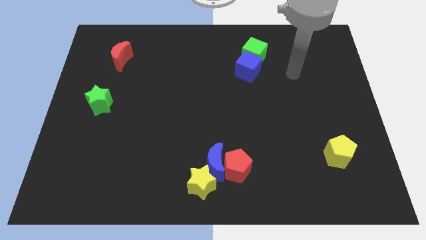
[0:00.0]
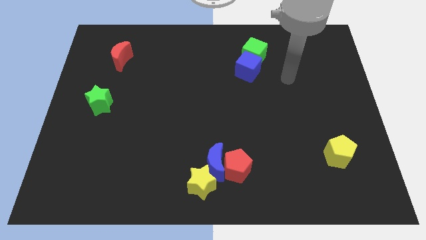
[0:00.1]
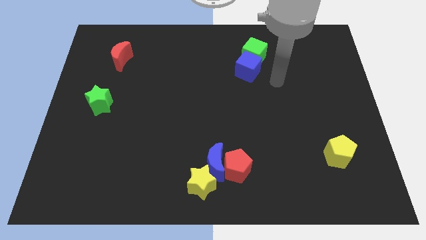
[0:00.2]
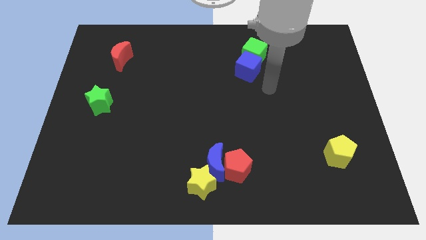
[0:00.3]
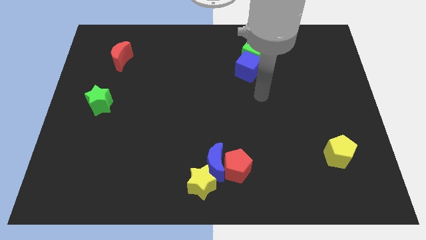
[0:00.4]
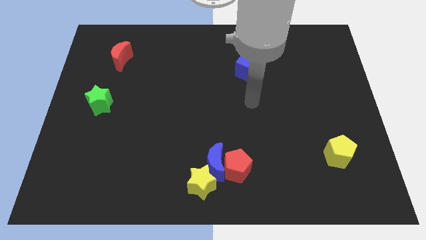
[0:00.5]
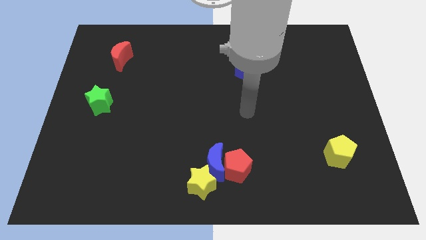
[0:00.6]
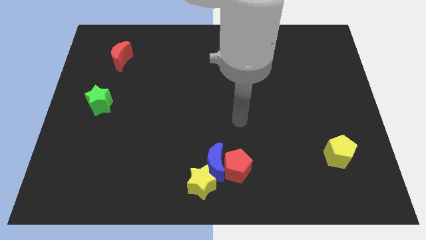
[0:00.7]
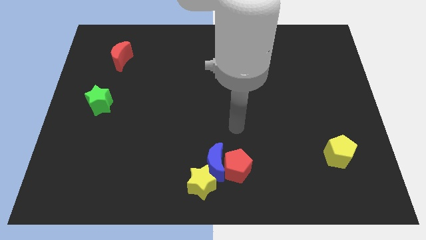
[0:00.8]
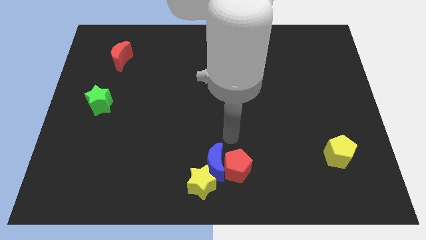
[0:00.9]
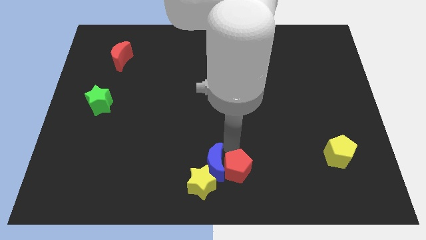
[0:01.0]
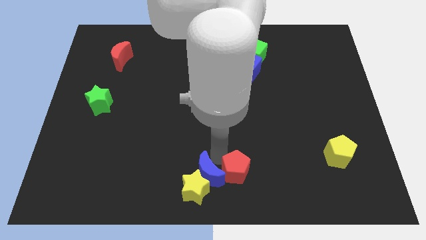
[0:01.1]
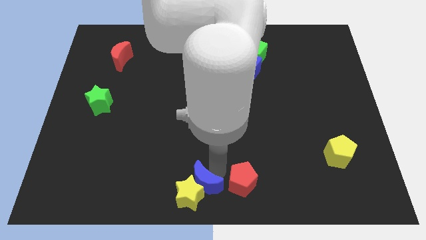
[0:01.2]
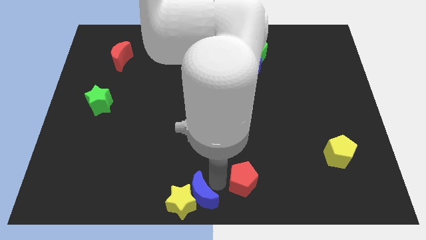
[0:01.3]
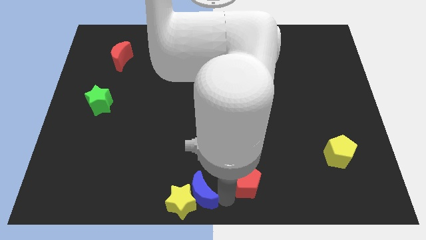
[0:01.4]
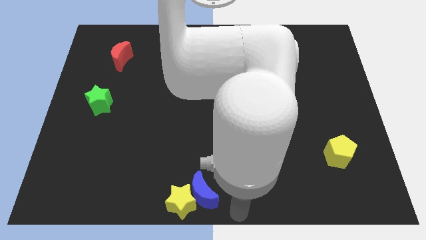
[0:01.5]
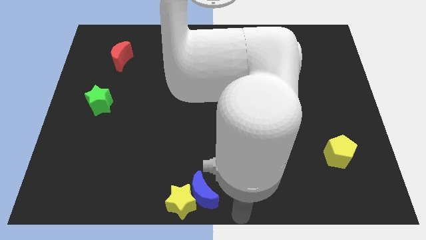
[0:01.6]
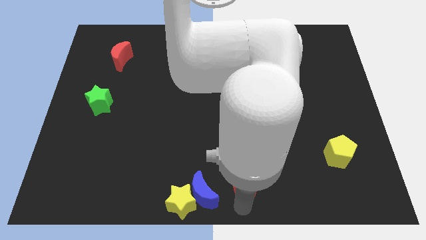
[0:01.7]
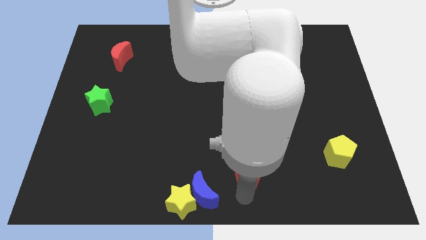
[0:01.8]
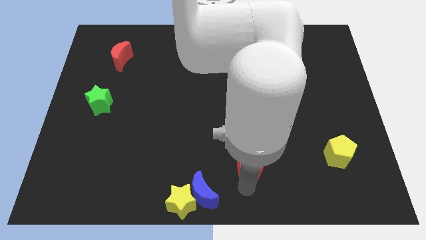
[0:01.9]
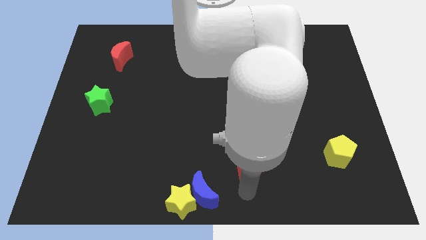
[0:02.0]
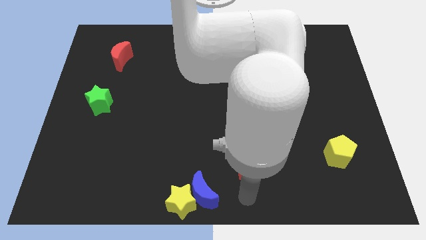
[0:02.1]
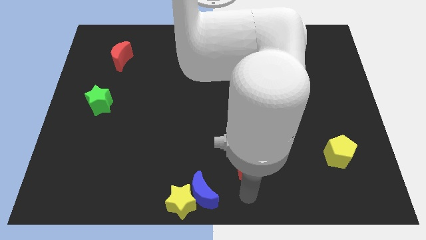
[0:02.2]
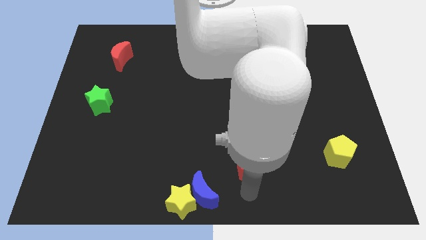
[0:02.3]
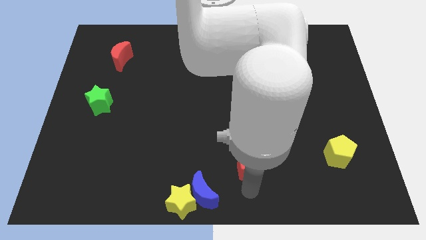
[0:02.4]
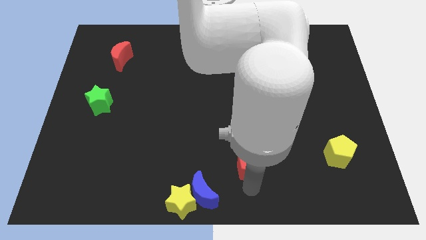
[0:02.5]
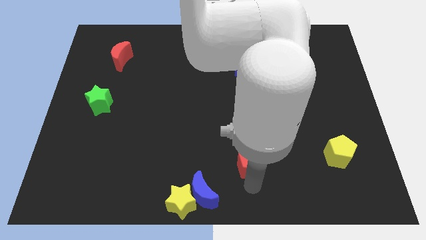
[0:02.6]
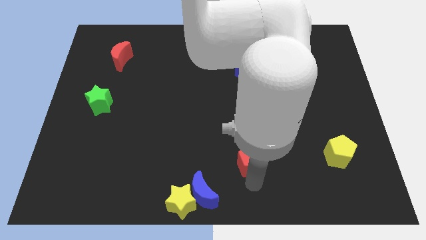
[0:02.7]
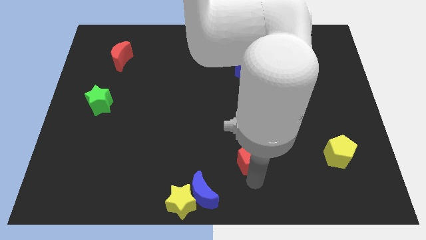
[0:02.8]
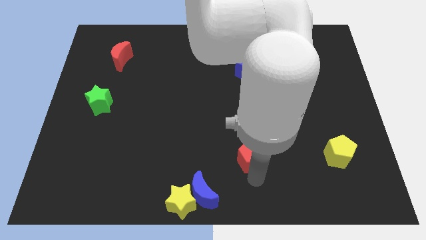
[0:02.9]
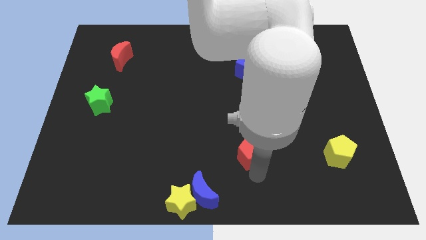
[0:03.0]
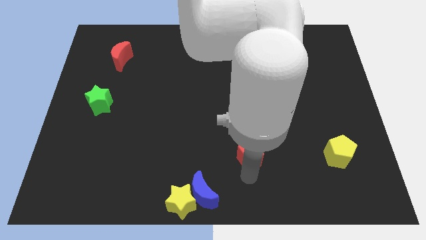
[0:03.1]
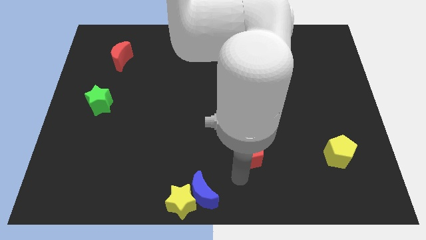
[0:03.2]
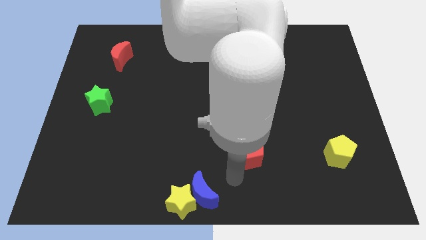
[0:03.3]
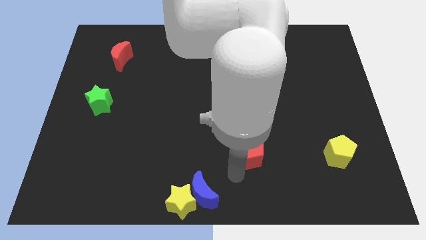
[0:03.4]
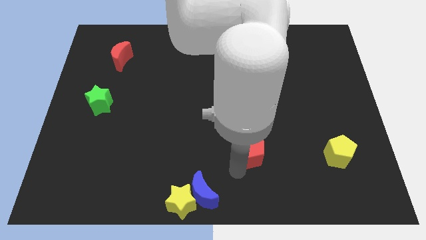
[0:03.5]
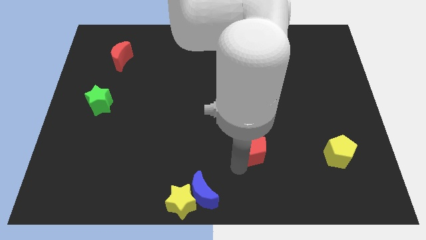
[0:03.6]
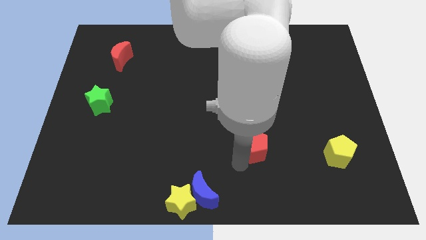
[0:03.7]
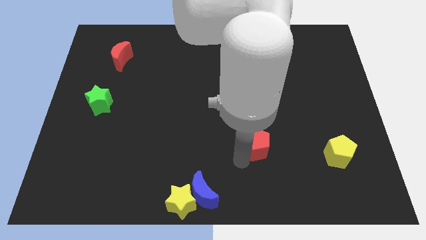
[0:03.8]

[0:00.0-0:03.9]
slightly move the red pentagon upwards and then right

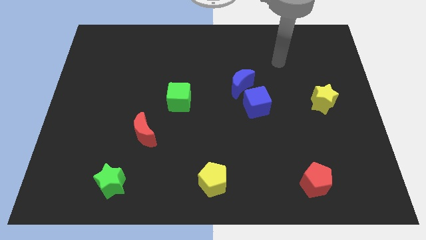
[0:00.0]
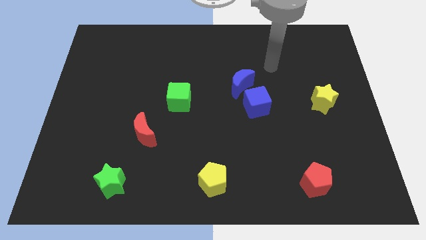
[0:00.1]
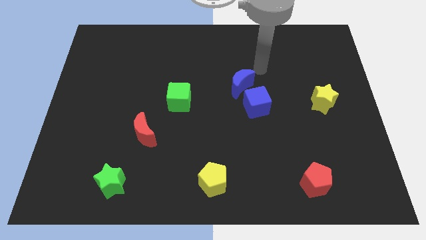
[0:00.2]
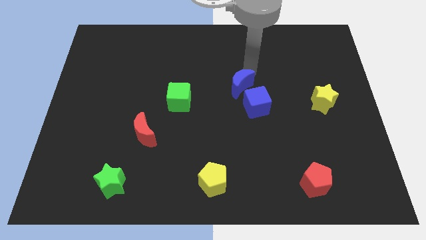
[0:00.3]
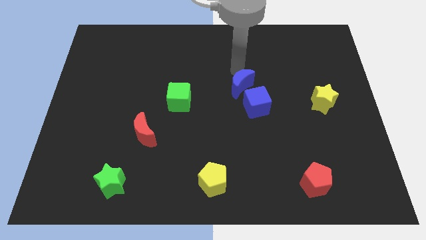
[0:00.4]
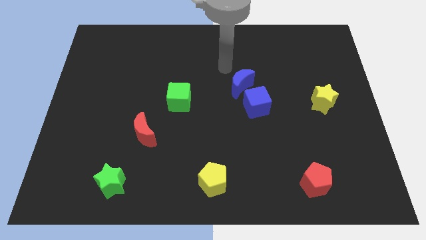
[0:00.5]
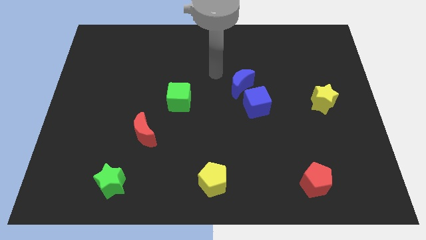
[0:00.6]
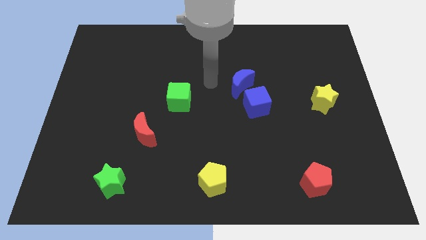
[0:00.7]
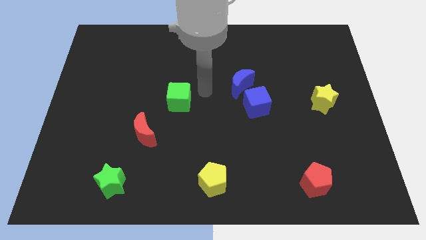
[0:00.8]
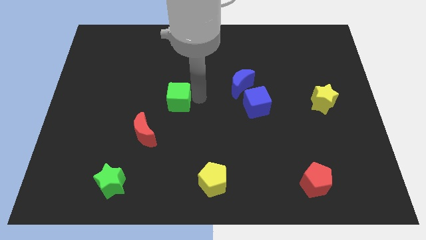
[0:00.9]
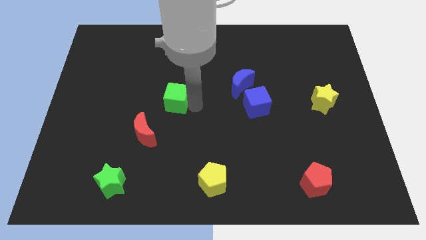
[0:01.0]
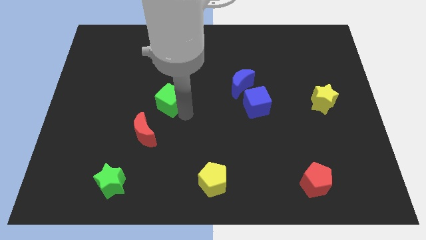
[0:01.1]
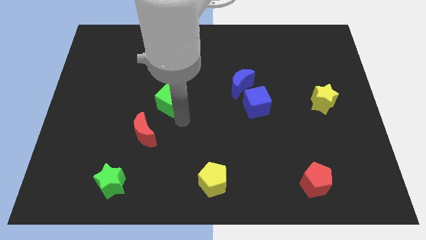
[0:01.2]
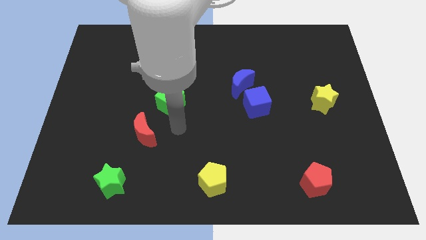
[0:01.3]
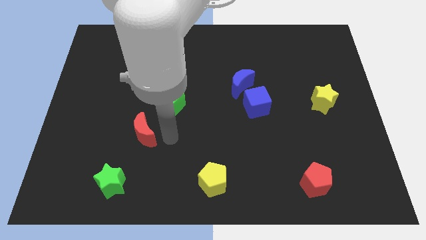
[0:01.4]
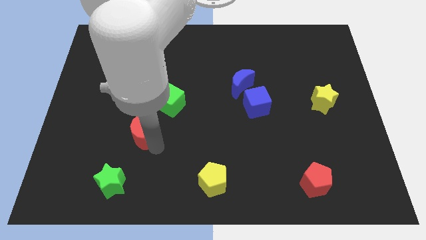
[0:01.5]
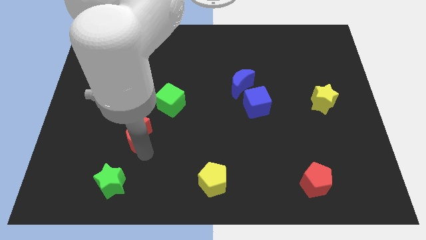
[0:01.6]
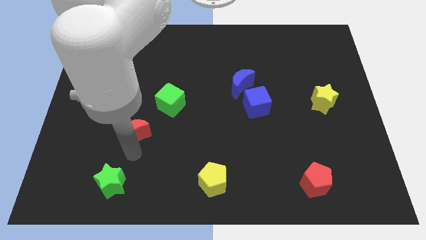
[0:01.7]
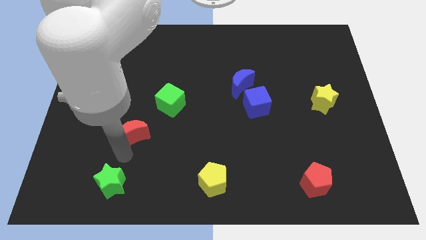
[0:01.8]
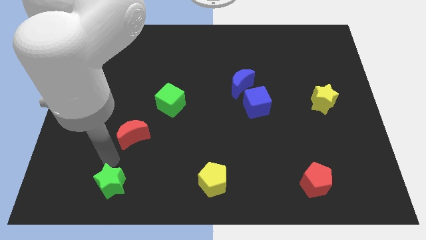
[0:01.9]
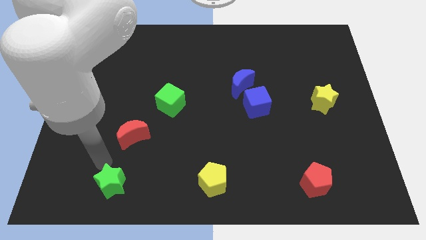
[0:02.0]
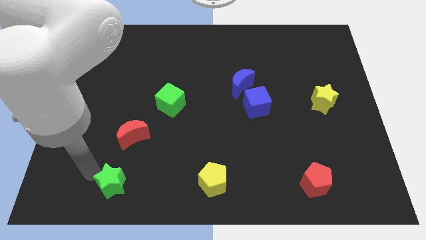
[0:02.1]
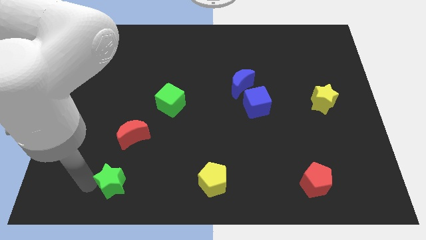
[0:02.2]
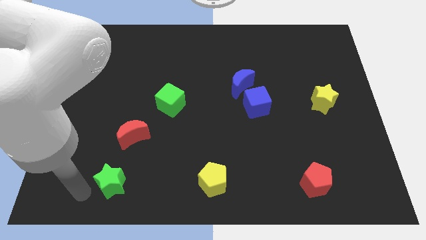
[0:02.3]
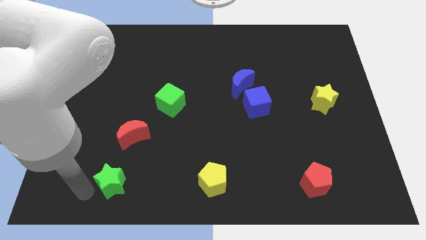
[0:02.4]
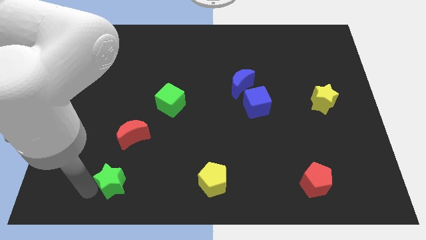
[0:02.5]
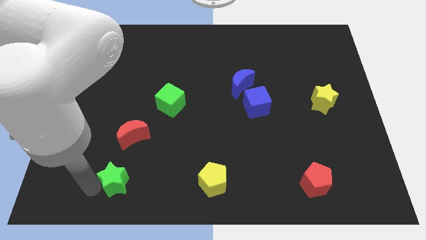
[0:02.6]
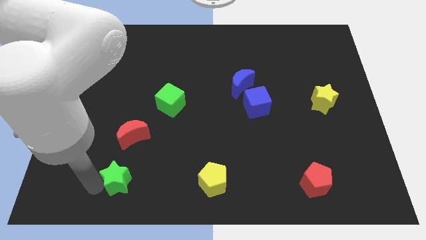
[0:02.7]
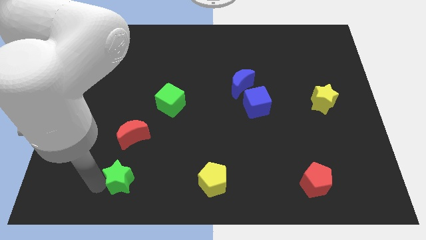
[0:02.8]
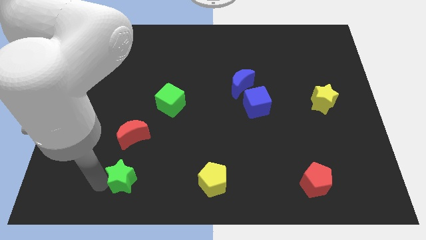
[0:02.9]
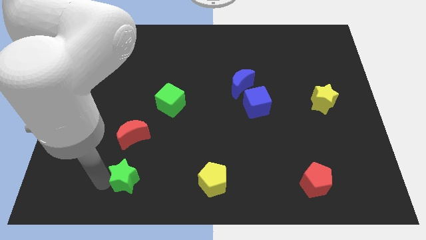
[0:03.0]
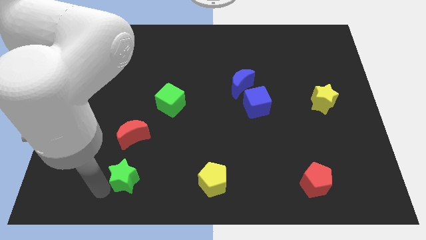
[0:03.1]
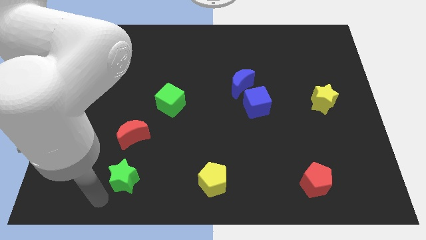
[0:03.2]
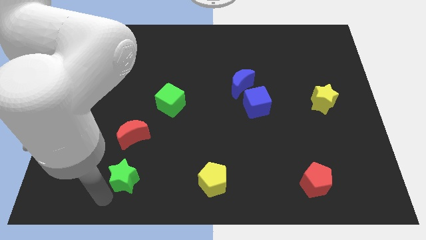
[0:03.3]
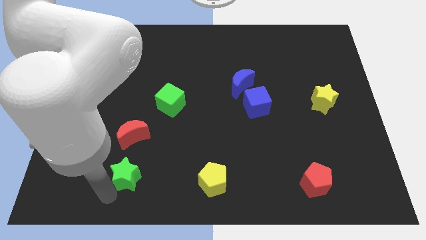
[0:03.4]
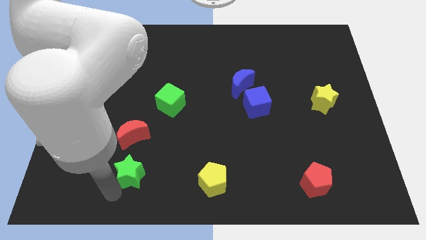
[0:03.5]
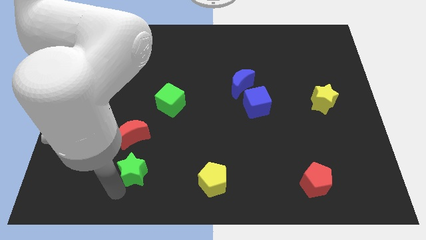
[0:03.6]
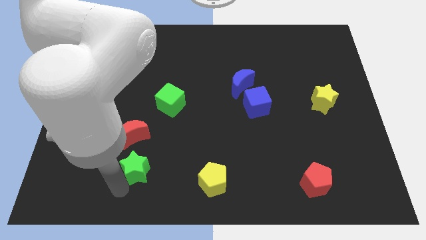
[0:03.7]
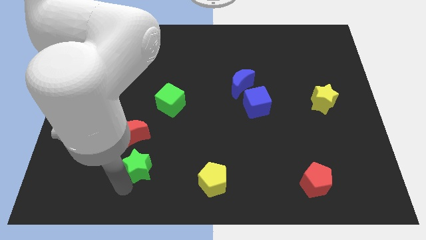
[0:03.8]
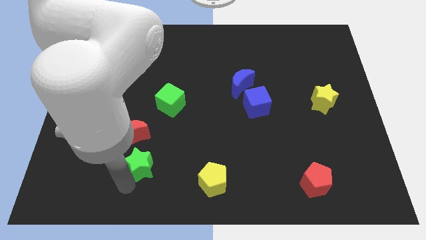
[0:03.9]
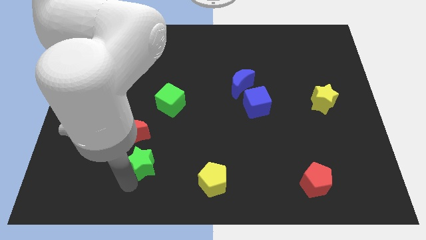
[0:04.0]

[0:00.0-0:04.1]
move the green star up and right somewhat
